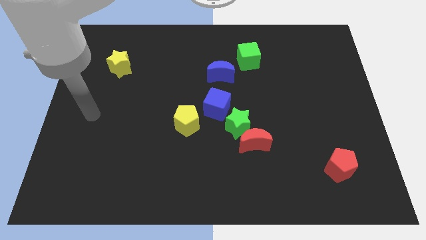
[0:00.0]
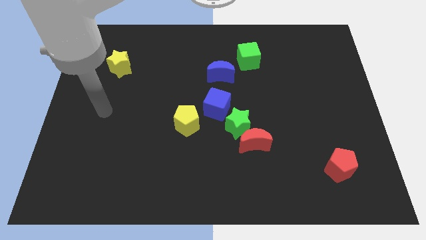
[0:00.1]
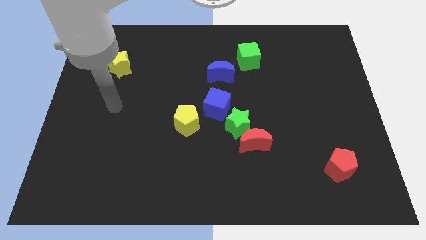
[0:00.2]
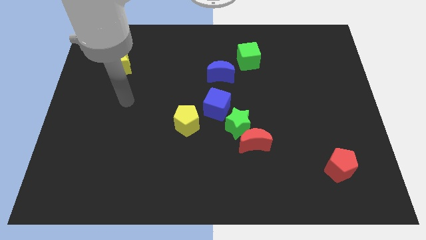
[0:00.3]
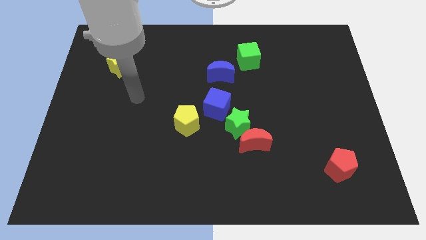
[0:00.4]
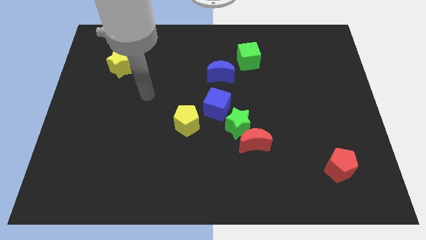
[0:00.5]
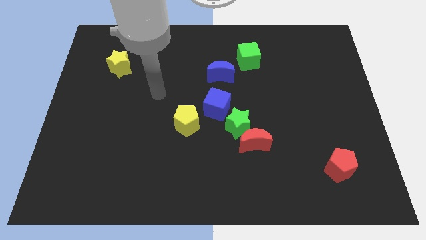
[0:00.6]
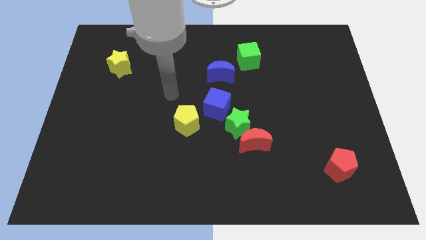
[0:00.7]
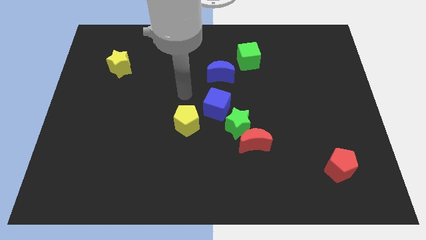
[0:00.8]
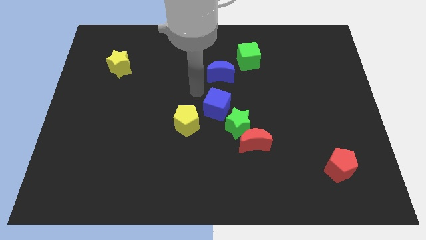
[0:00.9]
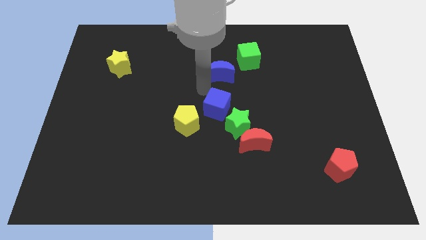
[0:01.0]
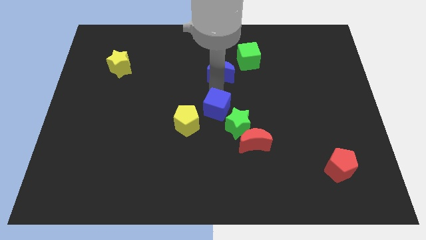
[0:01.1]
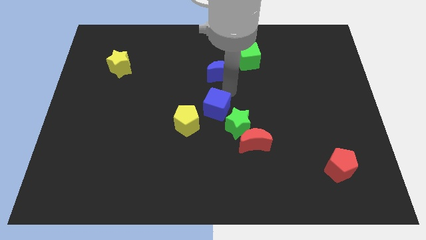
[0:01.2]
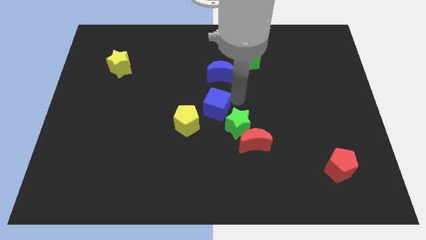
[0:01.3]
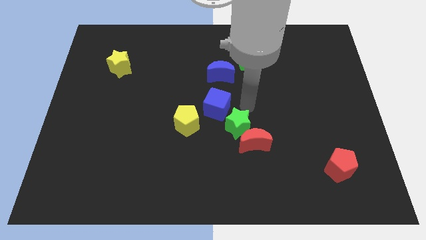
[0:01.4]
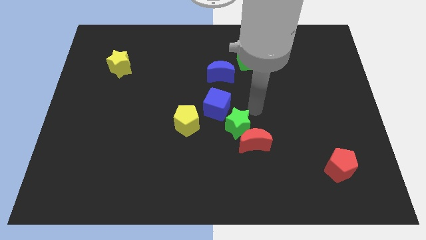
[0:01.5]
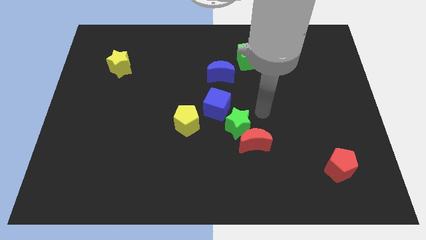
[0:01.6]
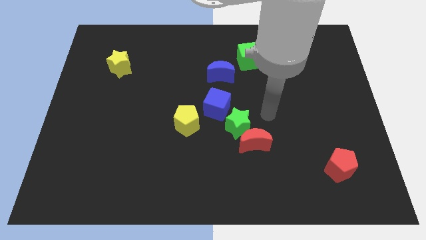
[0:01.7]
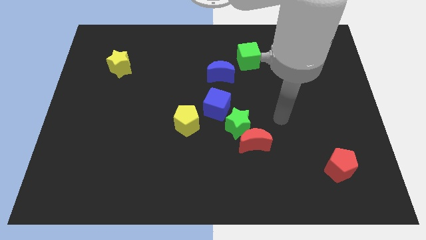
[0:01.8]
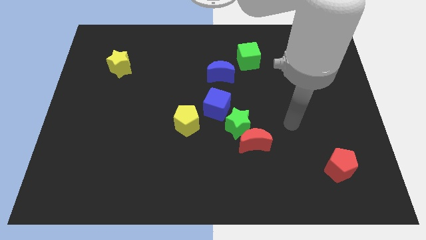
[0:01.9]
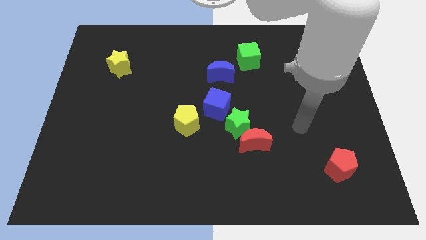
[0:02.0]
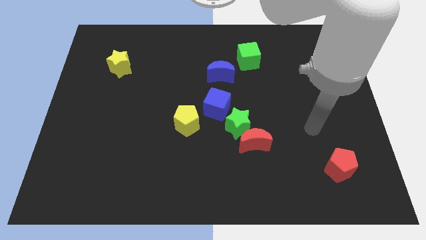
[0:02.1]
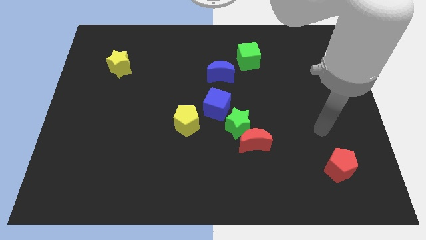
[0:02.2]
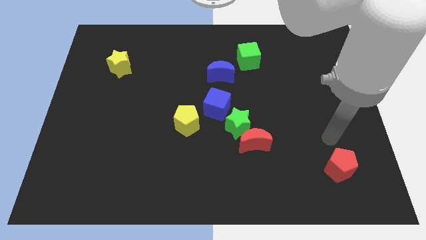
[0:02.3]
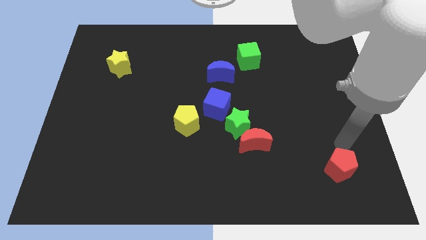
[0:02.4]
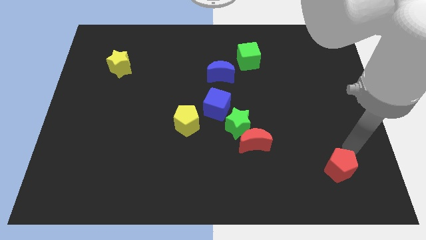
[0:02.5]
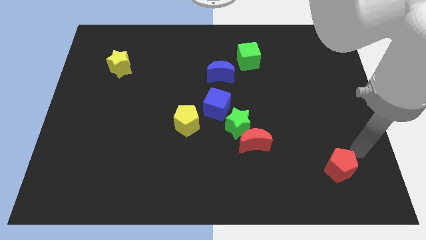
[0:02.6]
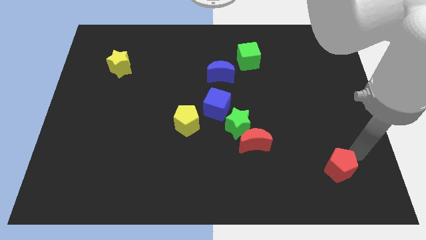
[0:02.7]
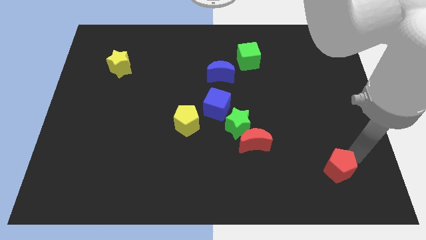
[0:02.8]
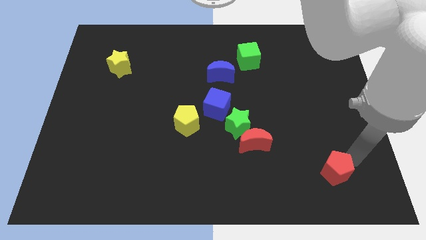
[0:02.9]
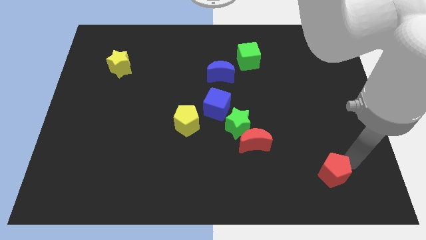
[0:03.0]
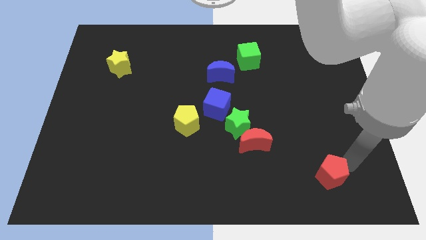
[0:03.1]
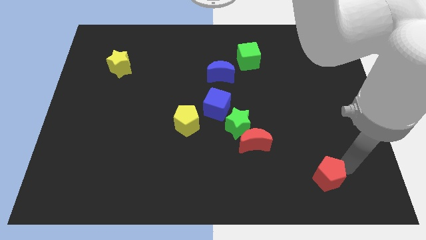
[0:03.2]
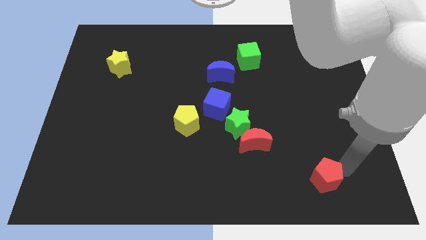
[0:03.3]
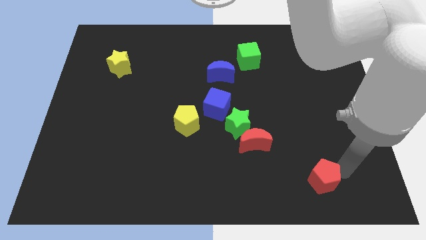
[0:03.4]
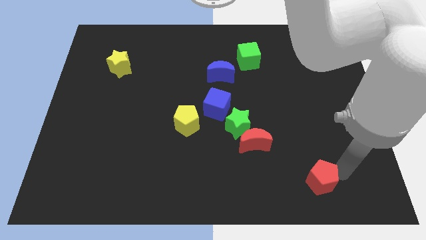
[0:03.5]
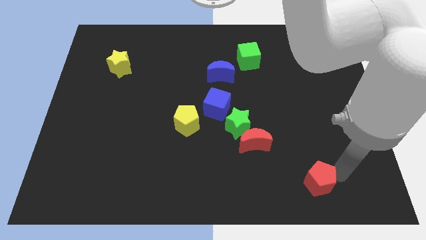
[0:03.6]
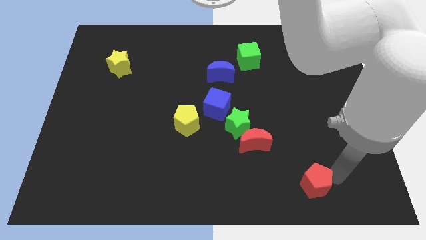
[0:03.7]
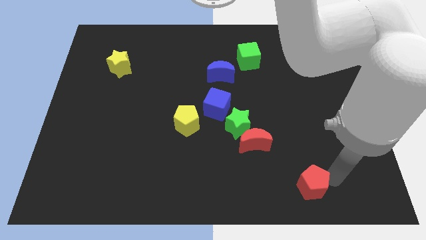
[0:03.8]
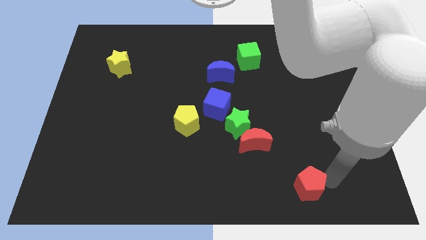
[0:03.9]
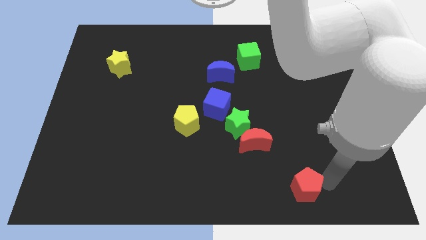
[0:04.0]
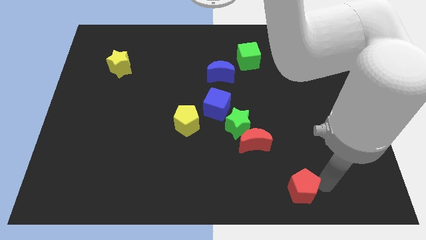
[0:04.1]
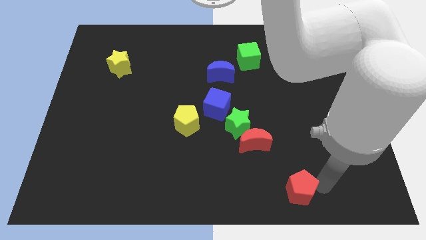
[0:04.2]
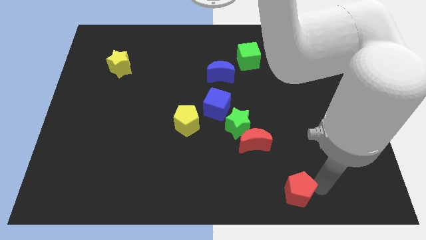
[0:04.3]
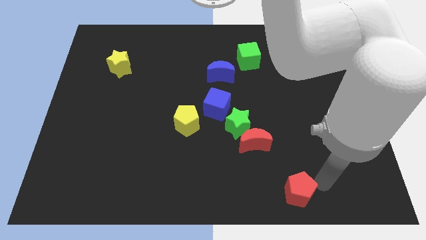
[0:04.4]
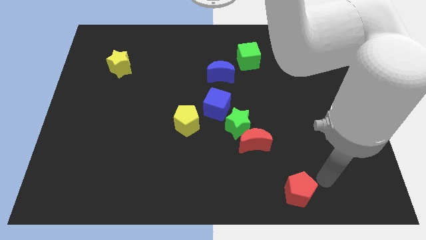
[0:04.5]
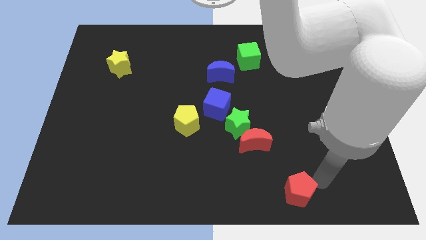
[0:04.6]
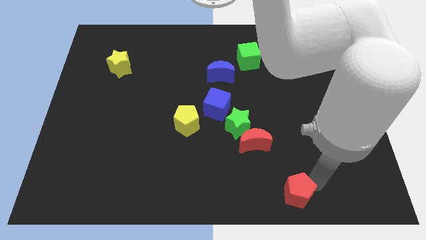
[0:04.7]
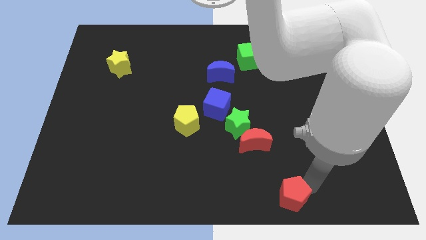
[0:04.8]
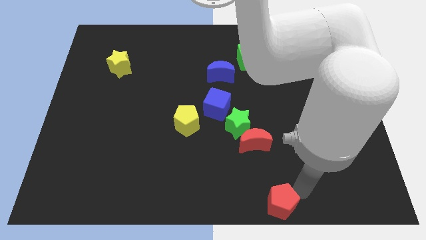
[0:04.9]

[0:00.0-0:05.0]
push the red pentagon to the bottom side

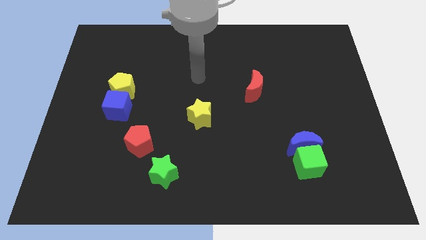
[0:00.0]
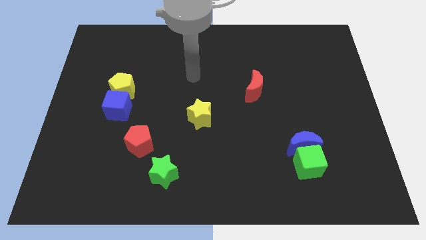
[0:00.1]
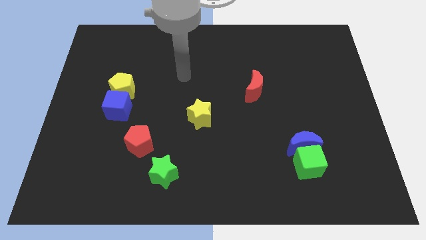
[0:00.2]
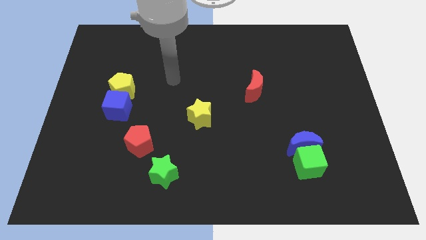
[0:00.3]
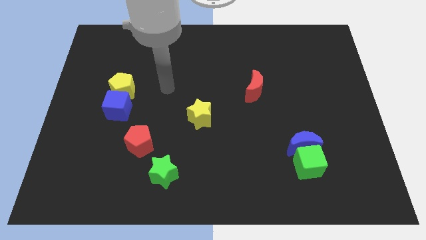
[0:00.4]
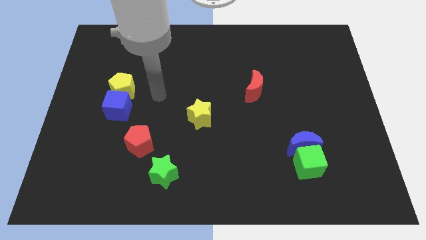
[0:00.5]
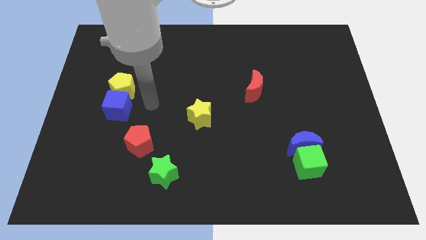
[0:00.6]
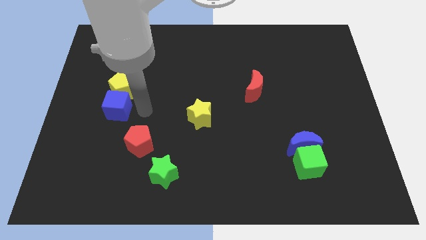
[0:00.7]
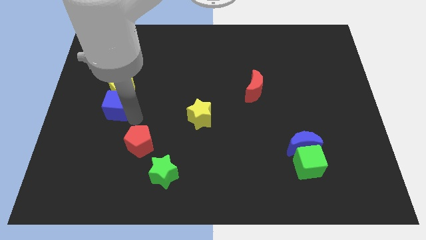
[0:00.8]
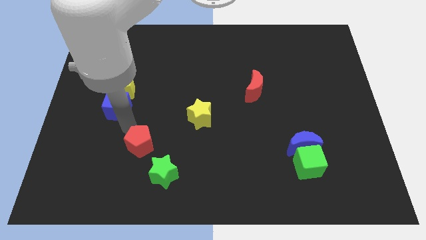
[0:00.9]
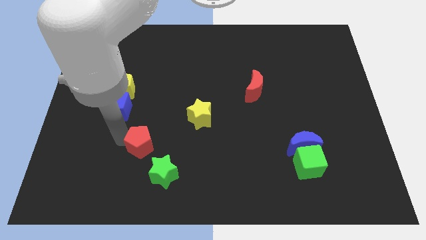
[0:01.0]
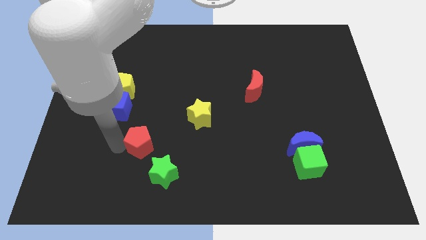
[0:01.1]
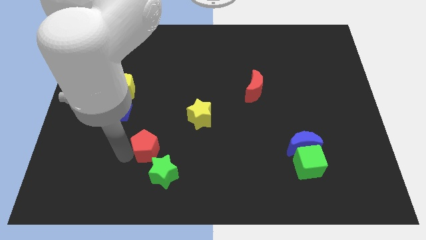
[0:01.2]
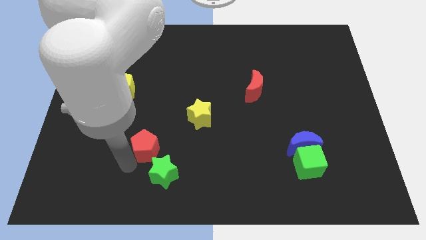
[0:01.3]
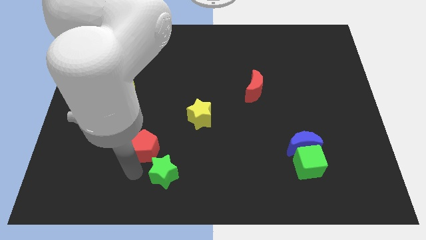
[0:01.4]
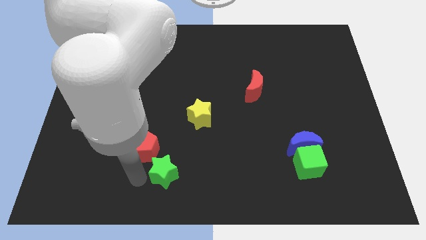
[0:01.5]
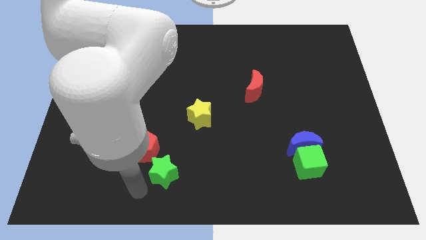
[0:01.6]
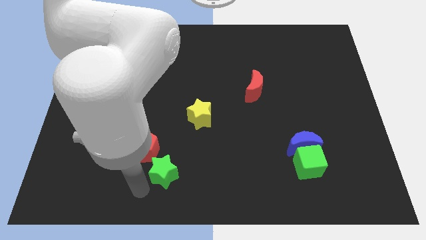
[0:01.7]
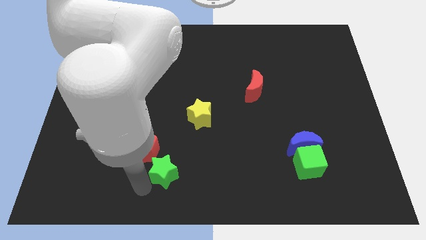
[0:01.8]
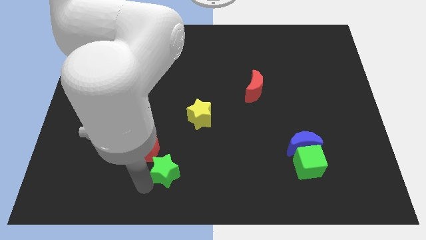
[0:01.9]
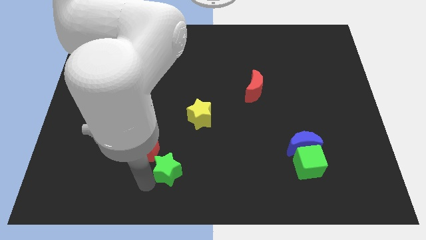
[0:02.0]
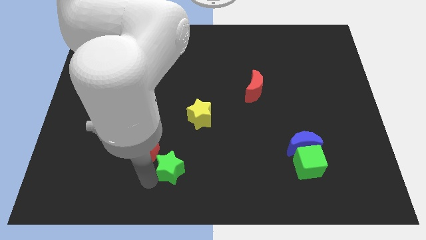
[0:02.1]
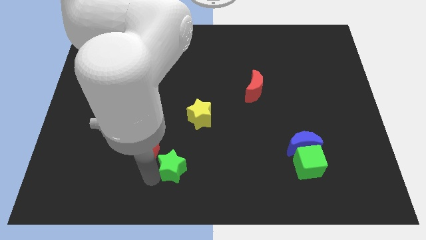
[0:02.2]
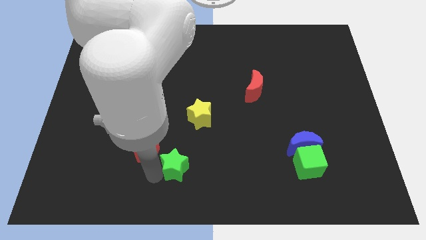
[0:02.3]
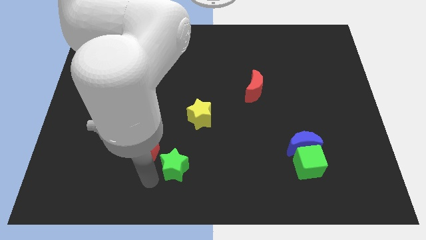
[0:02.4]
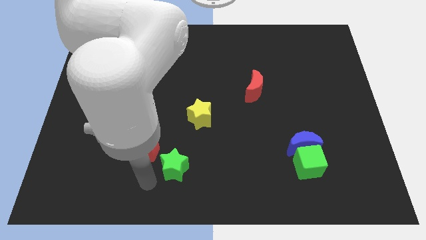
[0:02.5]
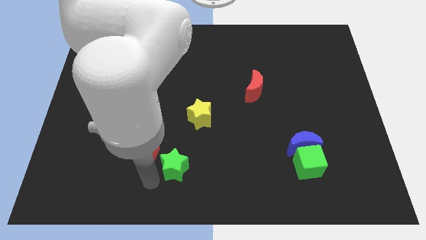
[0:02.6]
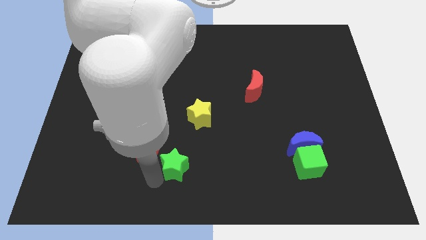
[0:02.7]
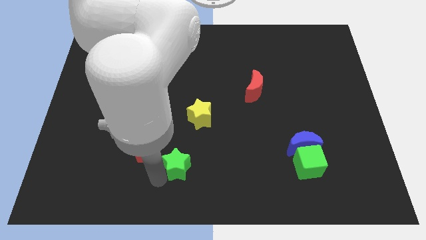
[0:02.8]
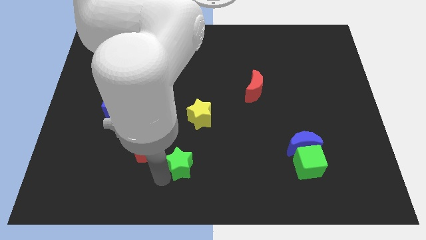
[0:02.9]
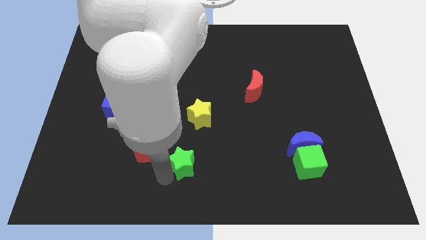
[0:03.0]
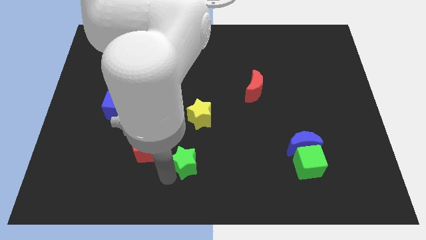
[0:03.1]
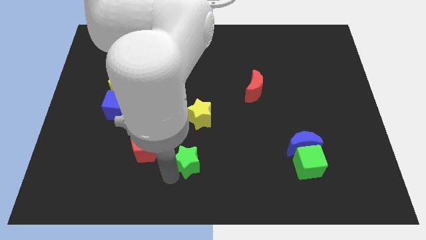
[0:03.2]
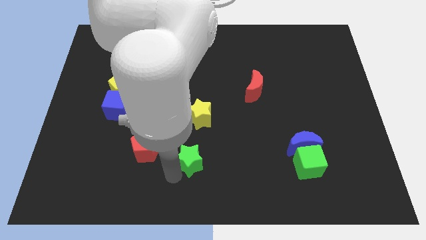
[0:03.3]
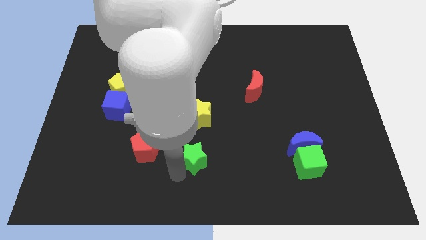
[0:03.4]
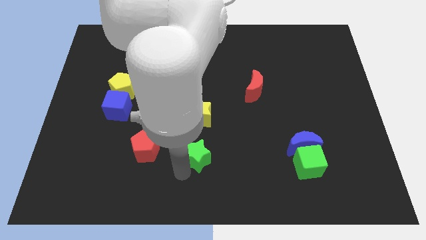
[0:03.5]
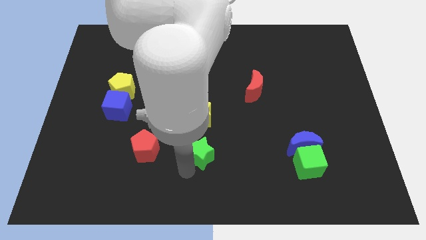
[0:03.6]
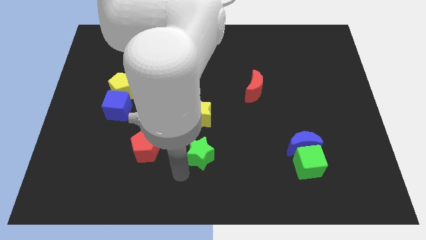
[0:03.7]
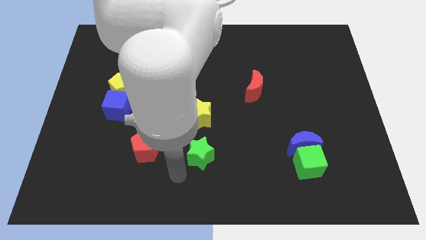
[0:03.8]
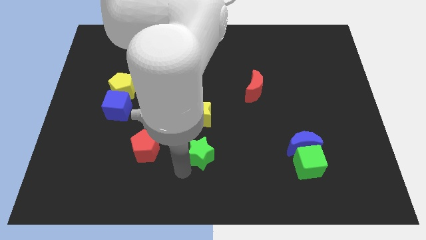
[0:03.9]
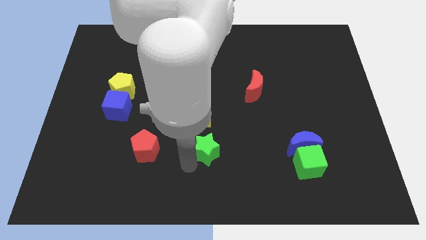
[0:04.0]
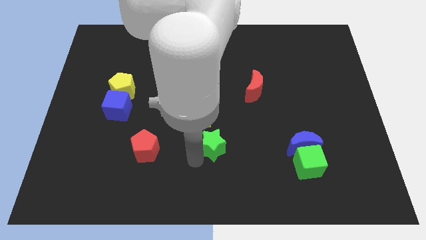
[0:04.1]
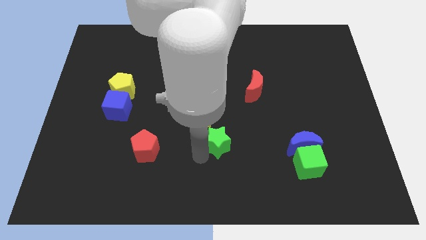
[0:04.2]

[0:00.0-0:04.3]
put the green star to the middle of the board
